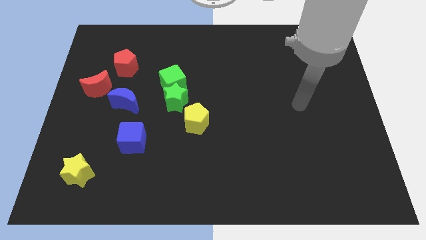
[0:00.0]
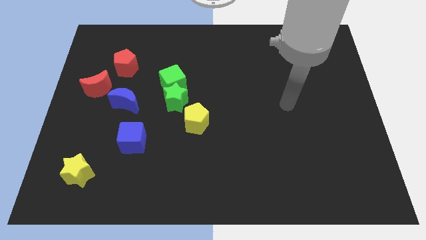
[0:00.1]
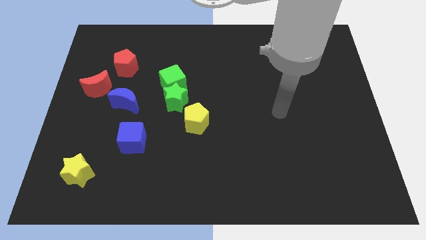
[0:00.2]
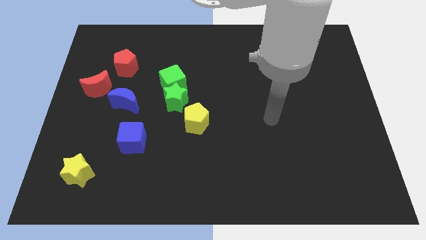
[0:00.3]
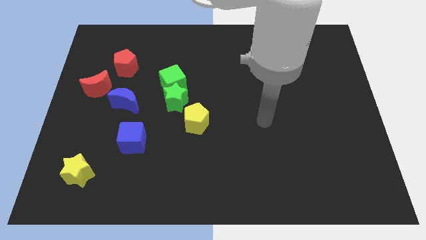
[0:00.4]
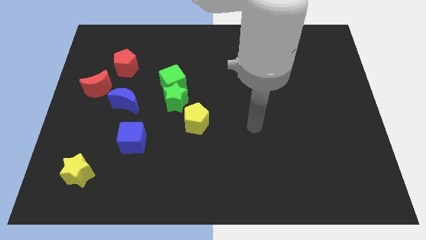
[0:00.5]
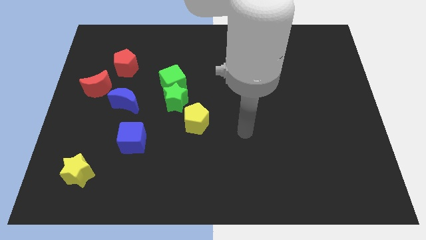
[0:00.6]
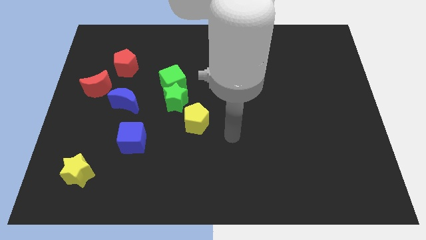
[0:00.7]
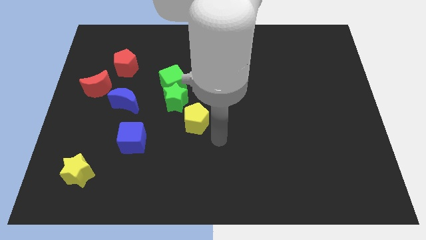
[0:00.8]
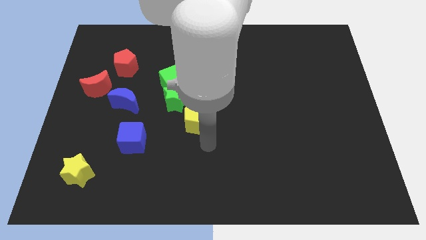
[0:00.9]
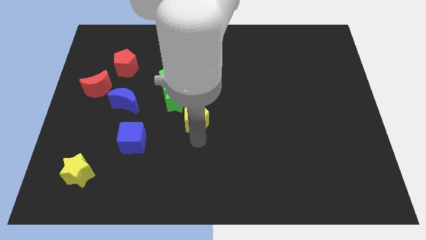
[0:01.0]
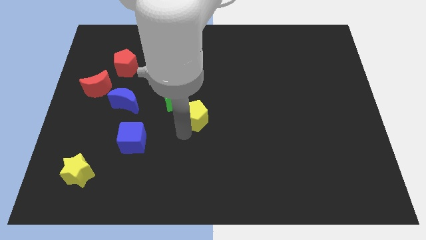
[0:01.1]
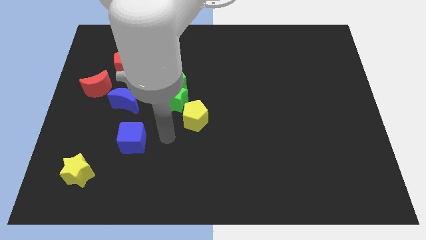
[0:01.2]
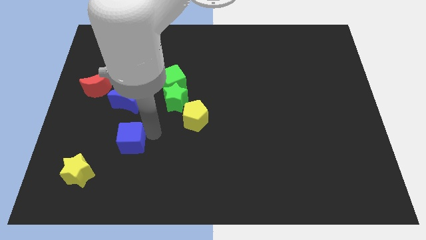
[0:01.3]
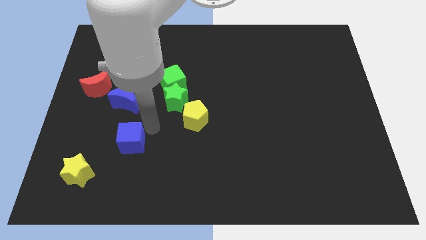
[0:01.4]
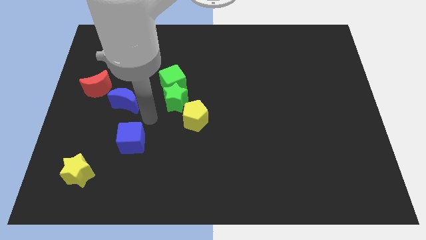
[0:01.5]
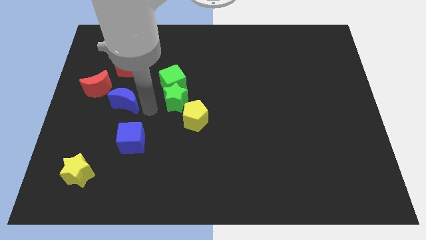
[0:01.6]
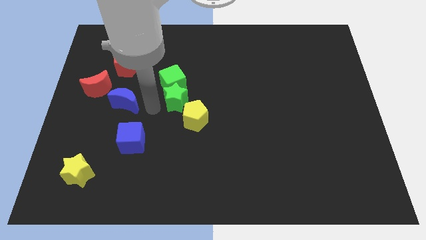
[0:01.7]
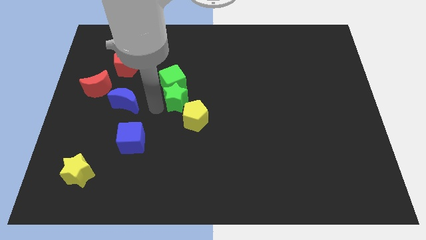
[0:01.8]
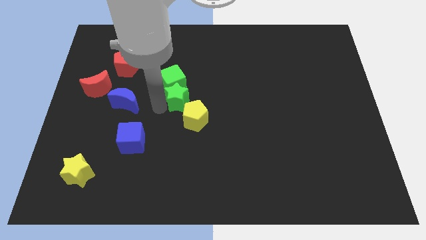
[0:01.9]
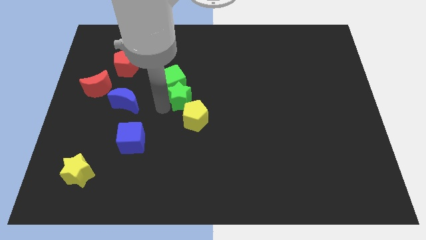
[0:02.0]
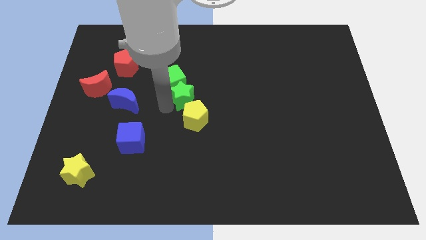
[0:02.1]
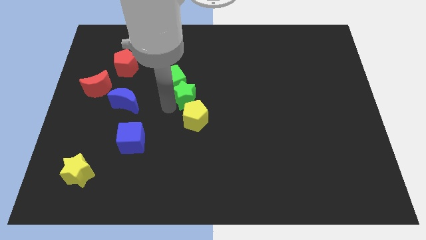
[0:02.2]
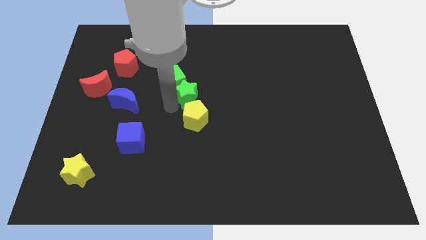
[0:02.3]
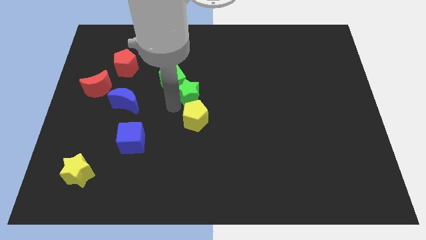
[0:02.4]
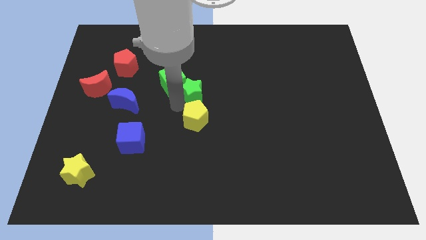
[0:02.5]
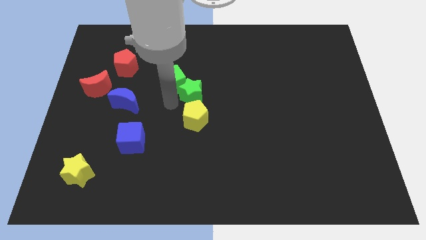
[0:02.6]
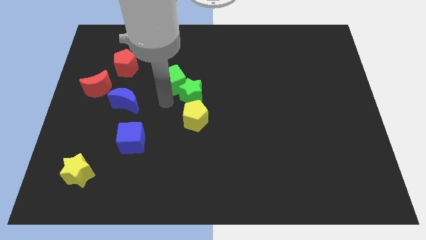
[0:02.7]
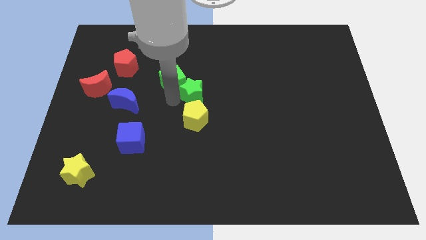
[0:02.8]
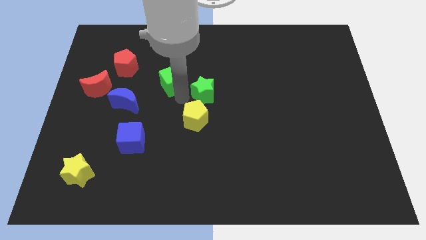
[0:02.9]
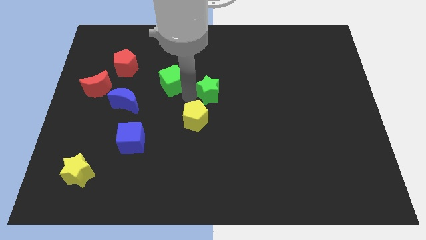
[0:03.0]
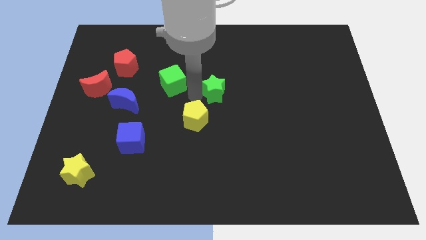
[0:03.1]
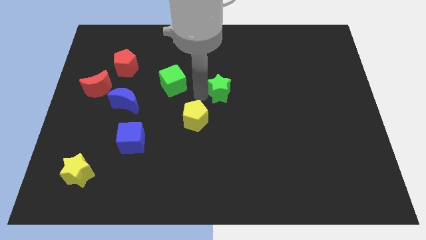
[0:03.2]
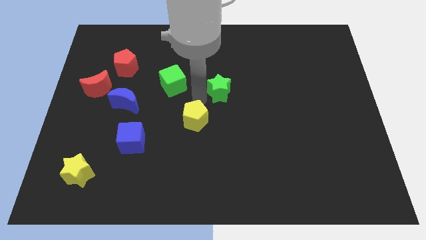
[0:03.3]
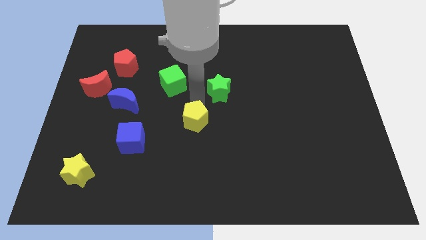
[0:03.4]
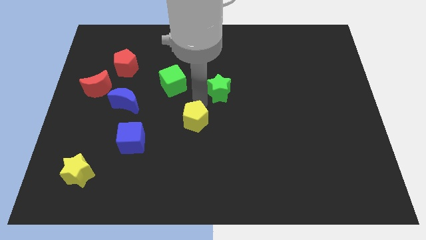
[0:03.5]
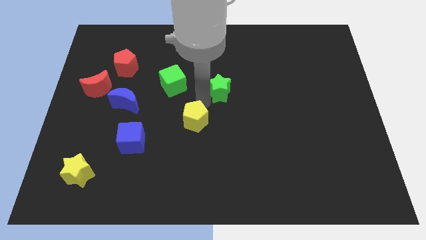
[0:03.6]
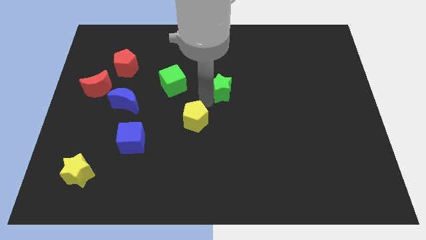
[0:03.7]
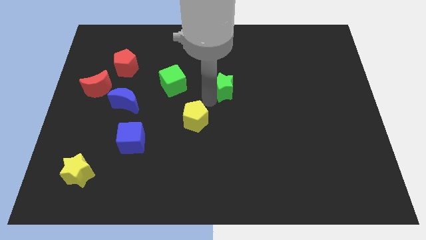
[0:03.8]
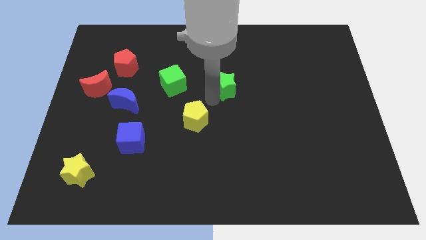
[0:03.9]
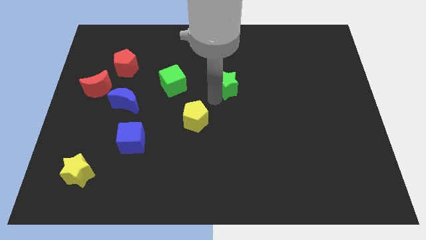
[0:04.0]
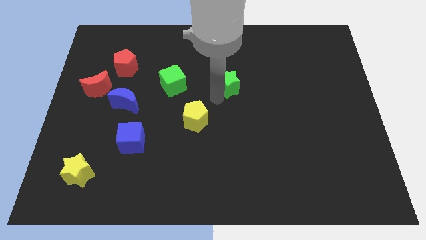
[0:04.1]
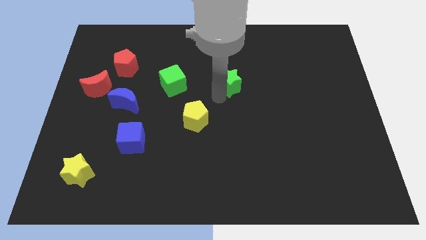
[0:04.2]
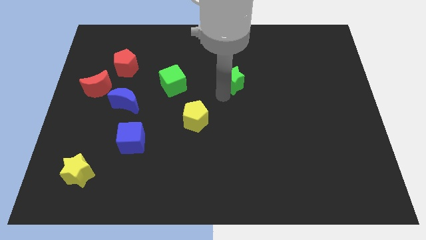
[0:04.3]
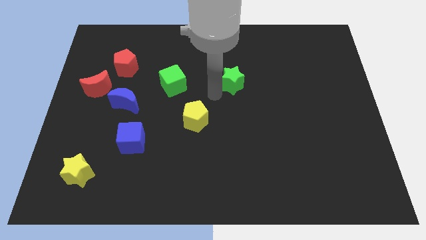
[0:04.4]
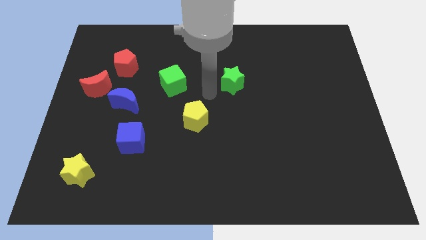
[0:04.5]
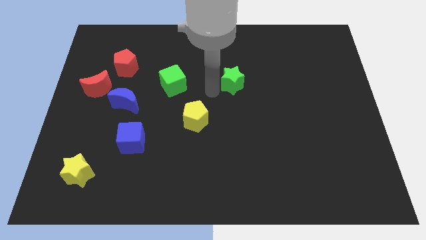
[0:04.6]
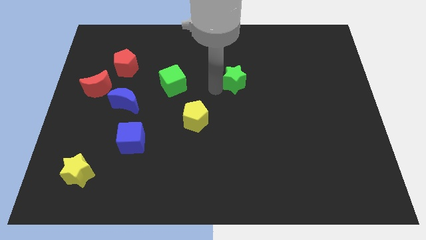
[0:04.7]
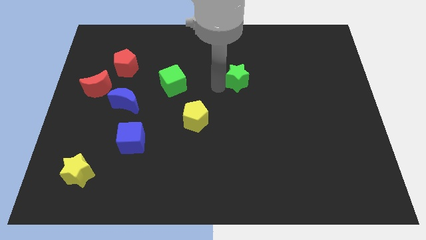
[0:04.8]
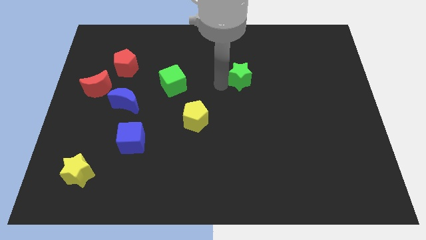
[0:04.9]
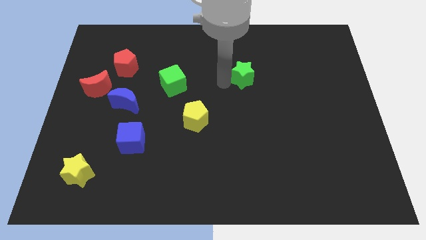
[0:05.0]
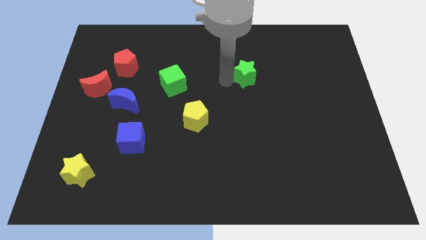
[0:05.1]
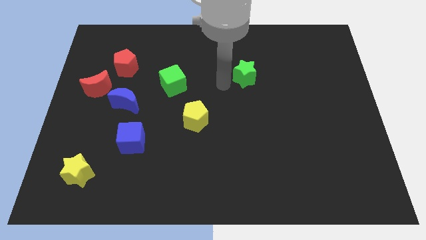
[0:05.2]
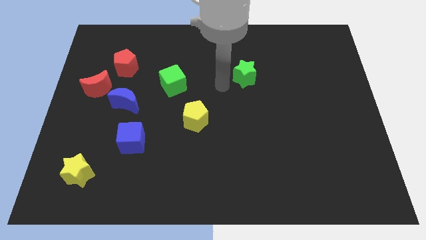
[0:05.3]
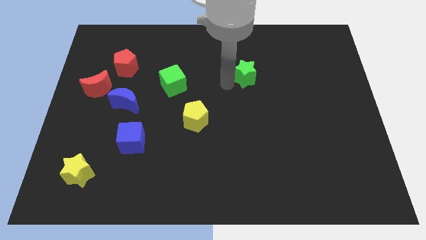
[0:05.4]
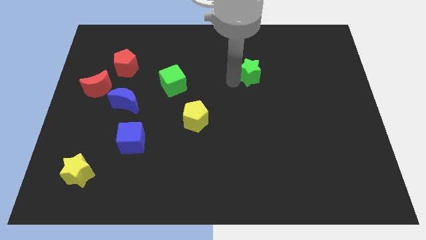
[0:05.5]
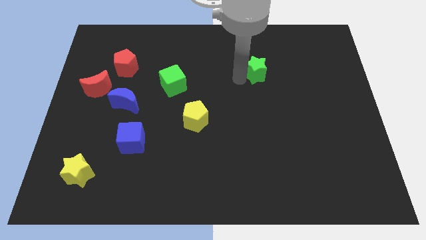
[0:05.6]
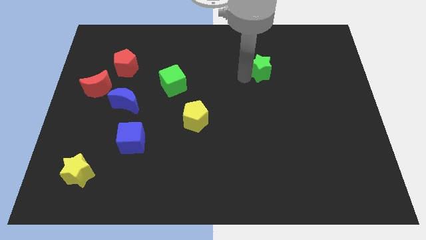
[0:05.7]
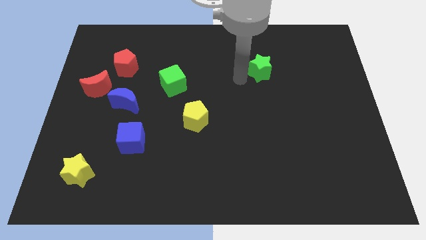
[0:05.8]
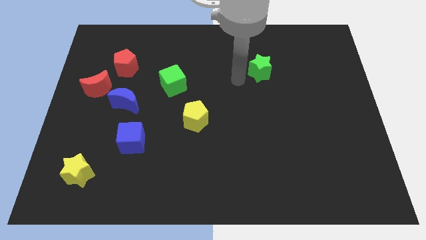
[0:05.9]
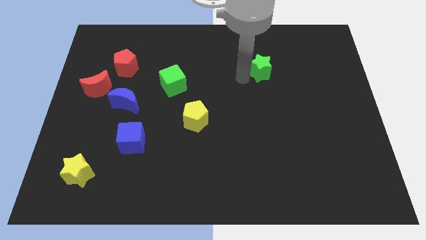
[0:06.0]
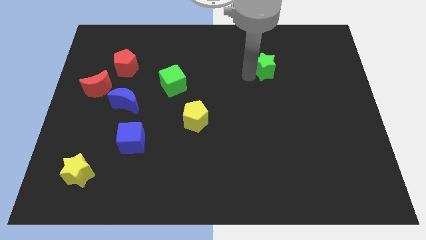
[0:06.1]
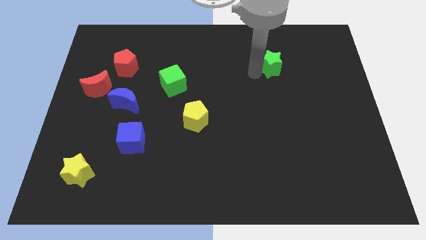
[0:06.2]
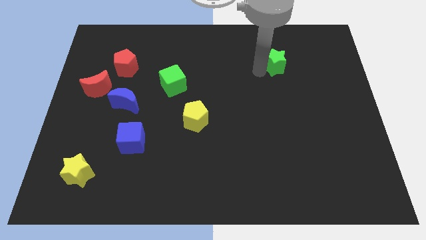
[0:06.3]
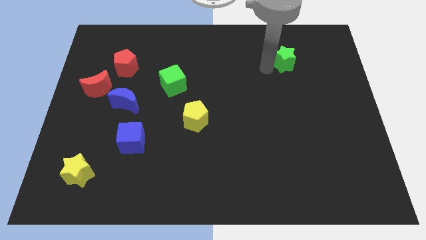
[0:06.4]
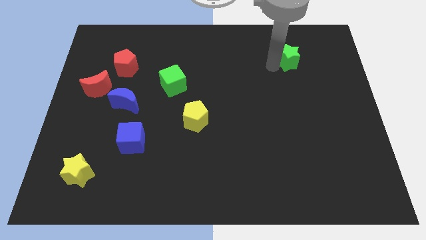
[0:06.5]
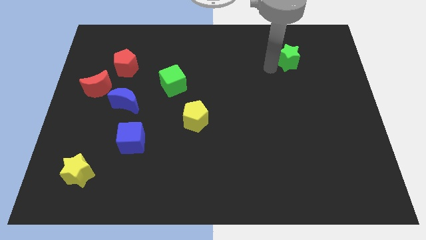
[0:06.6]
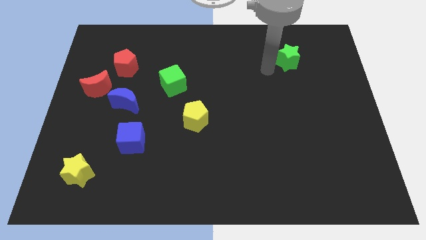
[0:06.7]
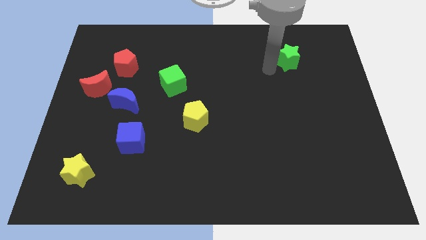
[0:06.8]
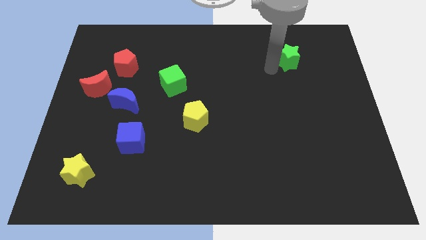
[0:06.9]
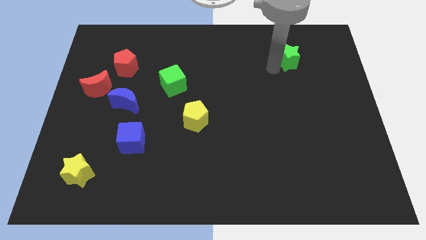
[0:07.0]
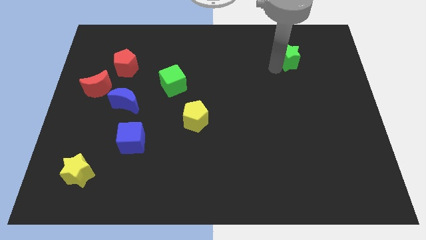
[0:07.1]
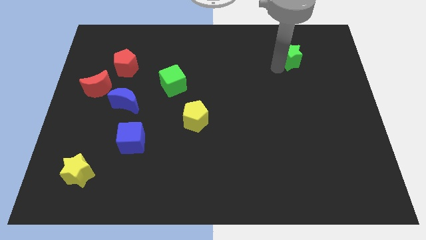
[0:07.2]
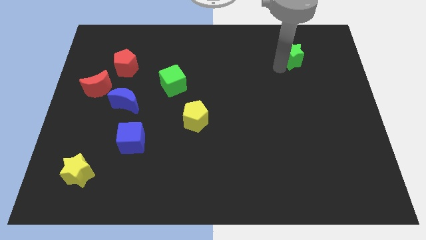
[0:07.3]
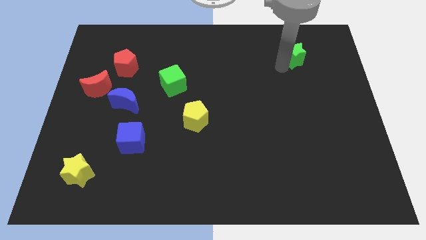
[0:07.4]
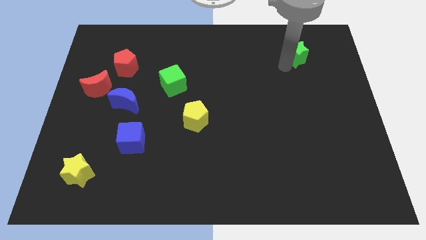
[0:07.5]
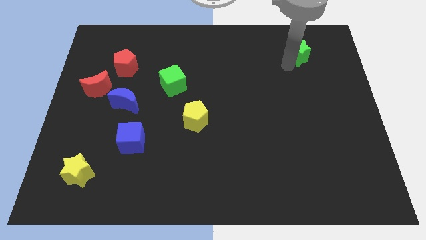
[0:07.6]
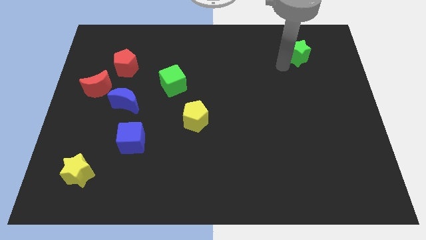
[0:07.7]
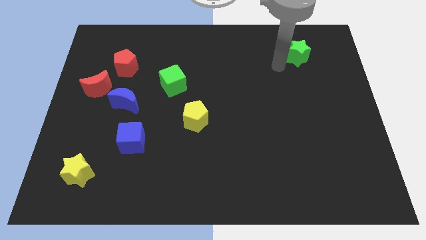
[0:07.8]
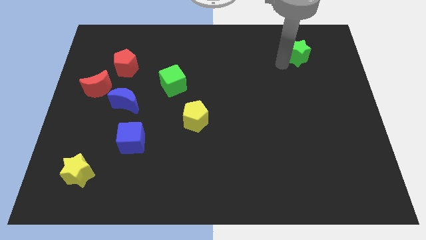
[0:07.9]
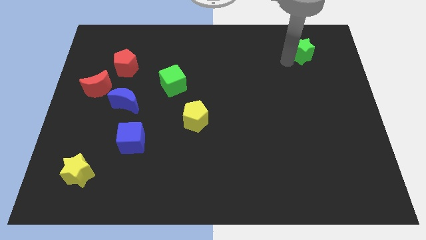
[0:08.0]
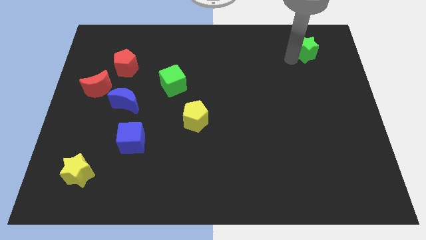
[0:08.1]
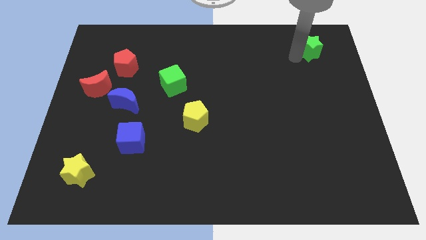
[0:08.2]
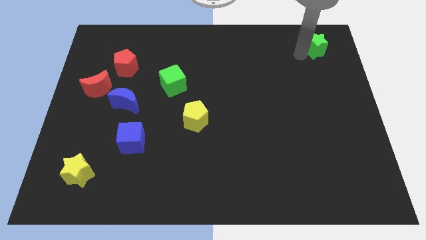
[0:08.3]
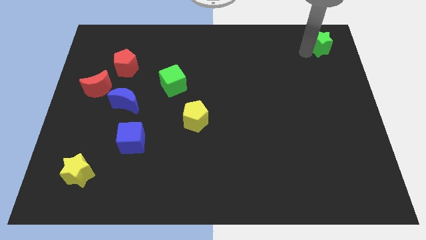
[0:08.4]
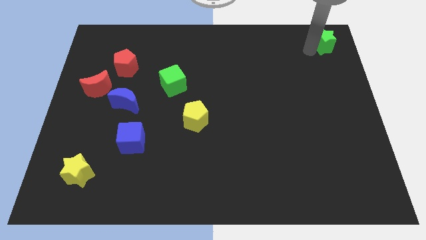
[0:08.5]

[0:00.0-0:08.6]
push the green star to the top right corner
